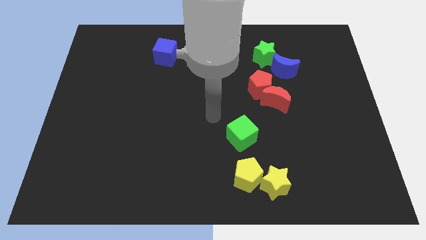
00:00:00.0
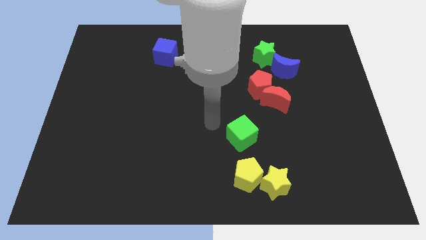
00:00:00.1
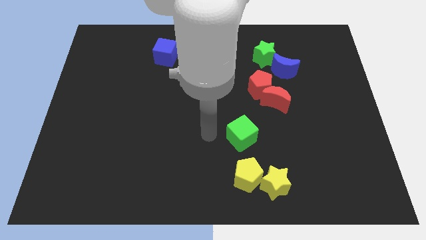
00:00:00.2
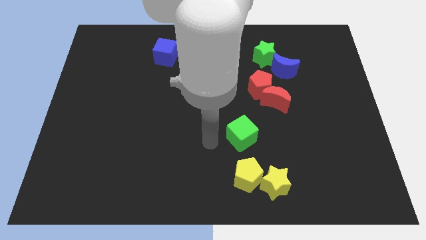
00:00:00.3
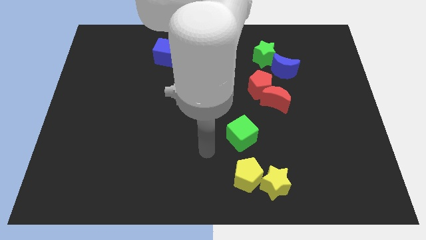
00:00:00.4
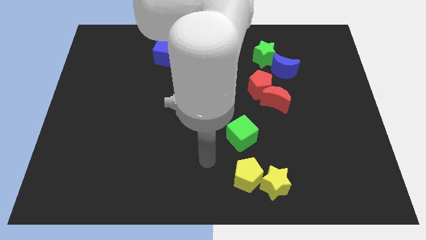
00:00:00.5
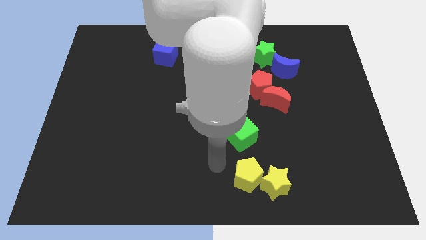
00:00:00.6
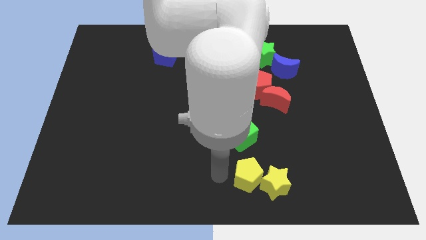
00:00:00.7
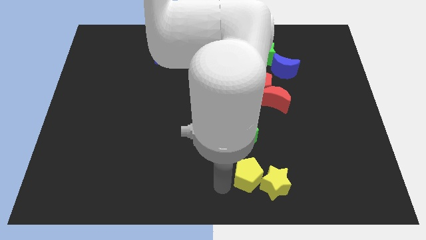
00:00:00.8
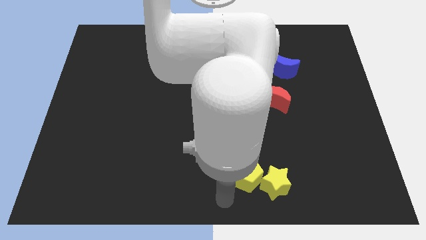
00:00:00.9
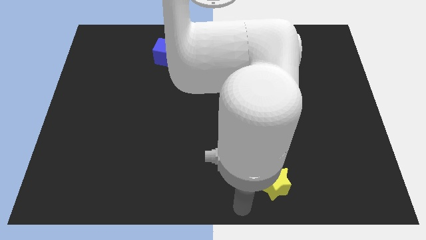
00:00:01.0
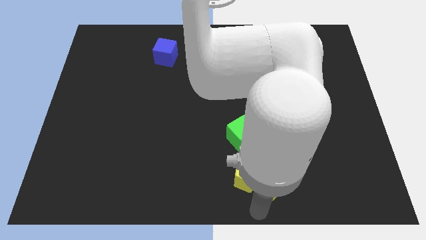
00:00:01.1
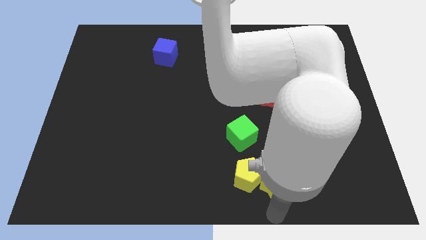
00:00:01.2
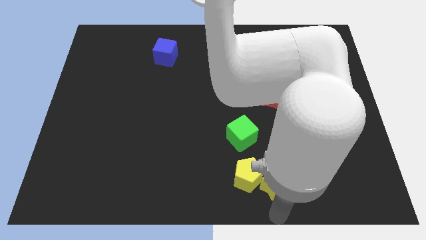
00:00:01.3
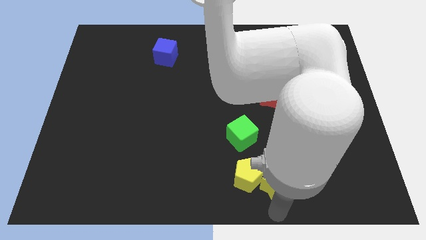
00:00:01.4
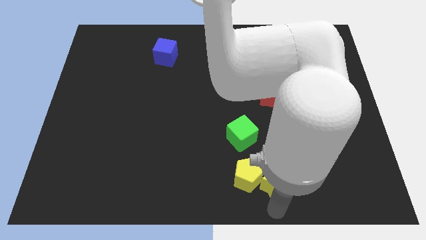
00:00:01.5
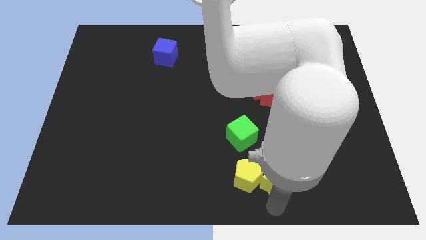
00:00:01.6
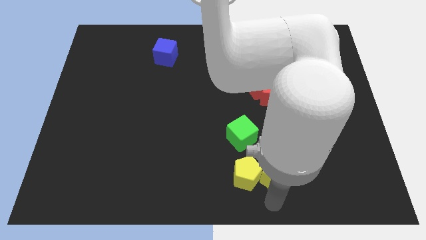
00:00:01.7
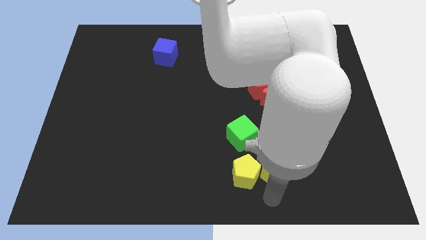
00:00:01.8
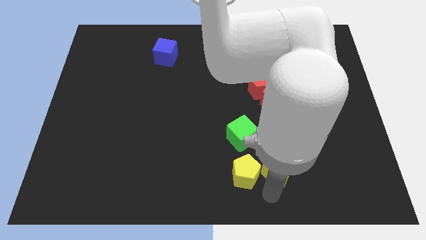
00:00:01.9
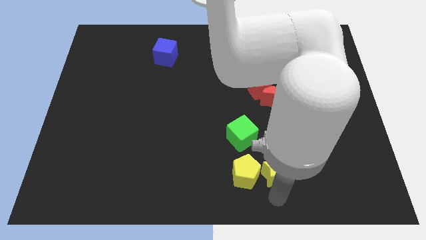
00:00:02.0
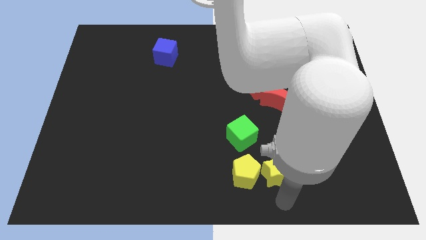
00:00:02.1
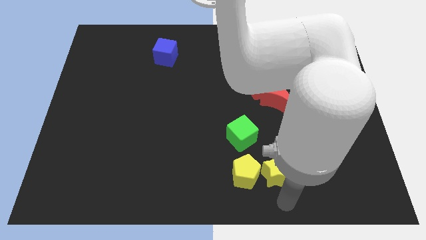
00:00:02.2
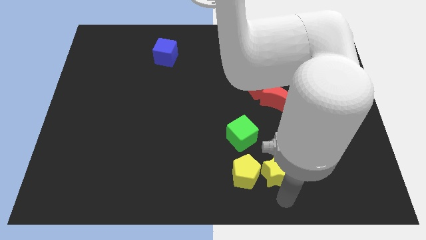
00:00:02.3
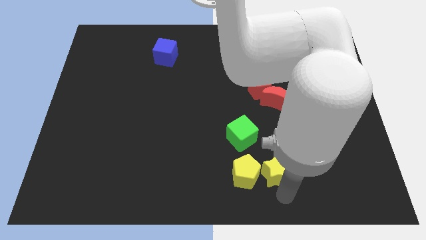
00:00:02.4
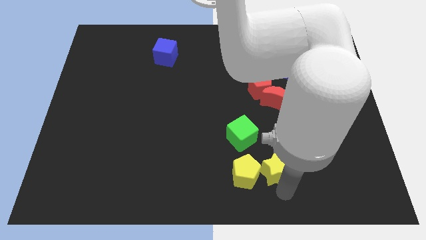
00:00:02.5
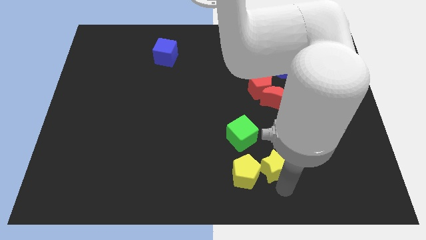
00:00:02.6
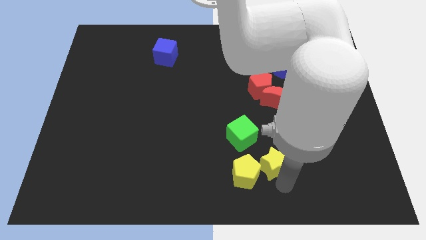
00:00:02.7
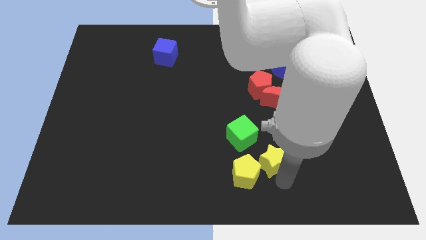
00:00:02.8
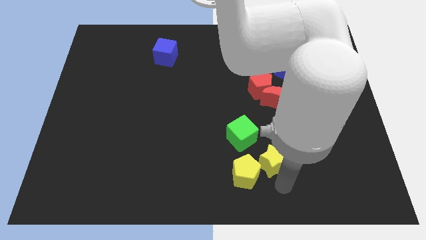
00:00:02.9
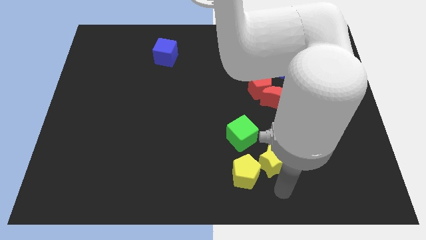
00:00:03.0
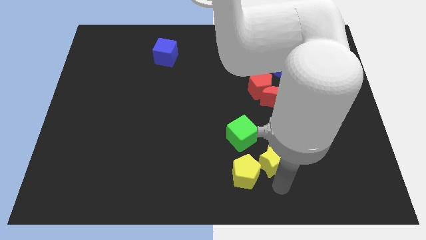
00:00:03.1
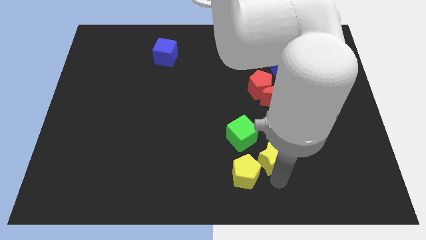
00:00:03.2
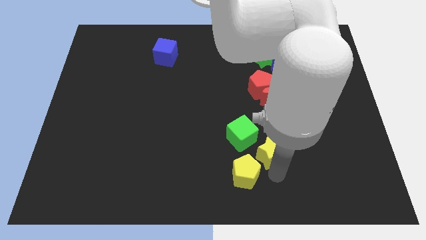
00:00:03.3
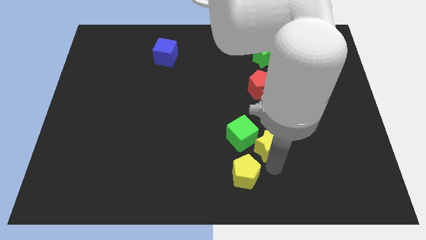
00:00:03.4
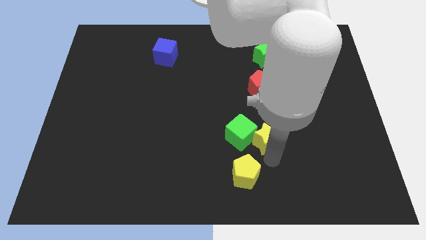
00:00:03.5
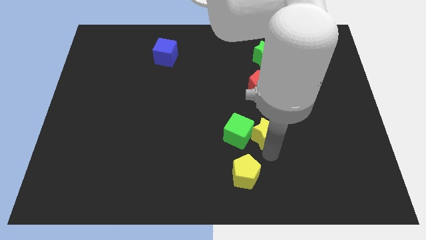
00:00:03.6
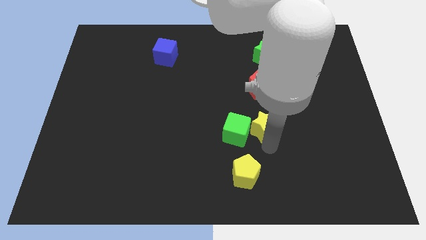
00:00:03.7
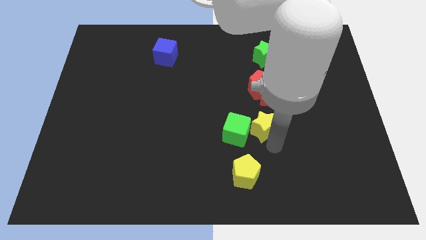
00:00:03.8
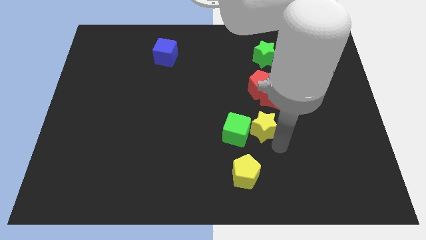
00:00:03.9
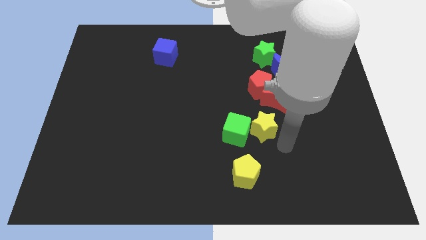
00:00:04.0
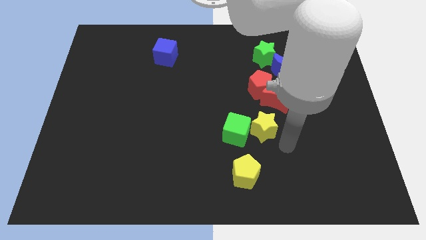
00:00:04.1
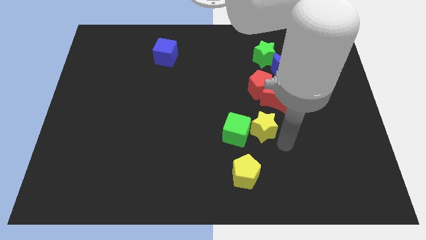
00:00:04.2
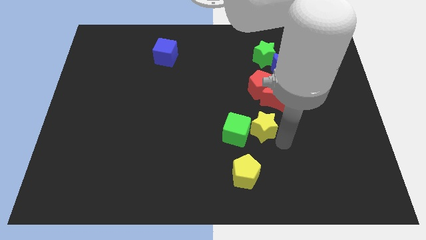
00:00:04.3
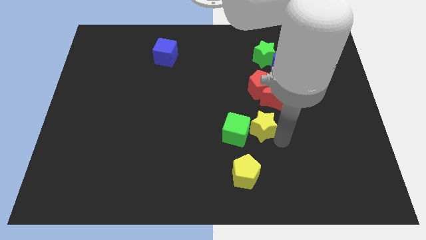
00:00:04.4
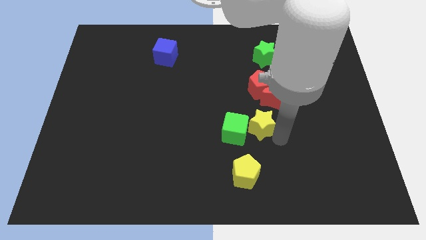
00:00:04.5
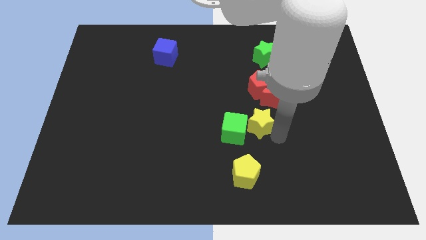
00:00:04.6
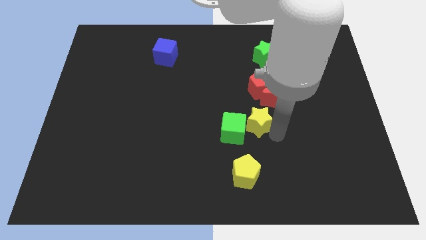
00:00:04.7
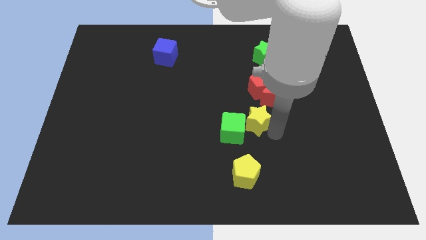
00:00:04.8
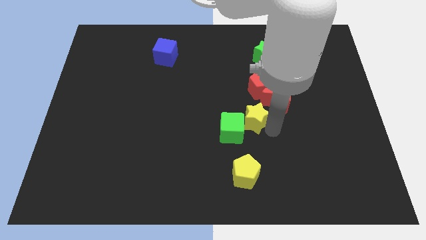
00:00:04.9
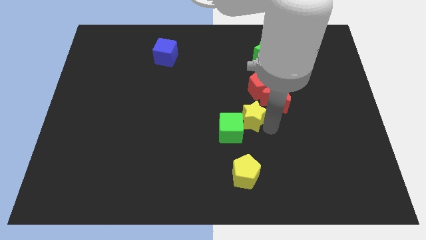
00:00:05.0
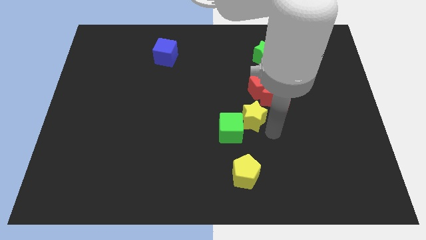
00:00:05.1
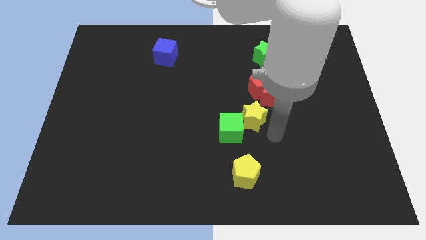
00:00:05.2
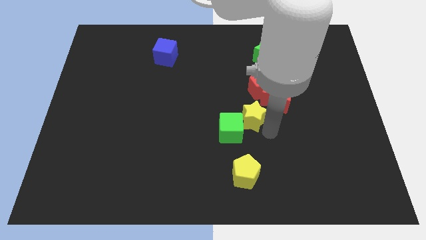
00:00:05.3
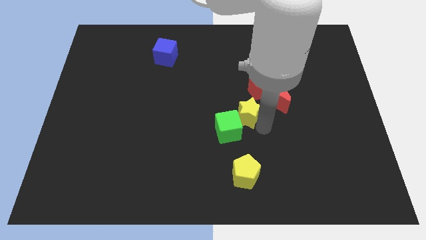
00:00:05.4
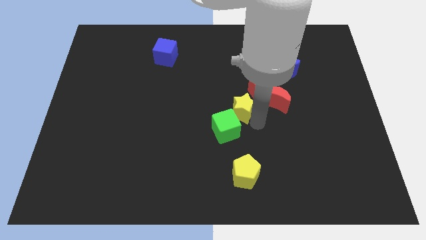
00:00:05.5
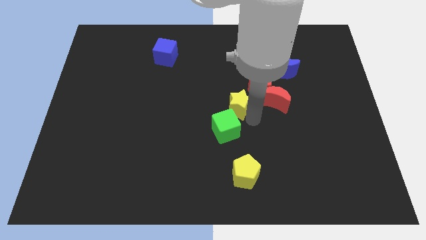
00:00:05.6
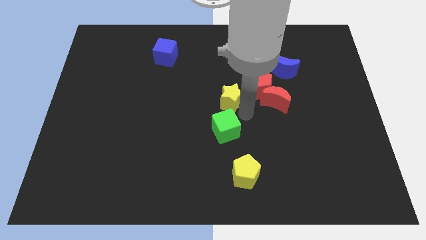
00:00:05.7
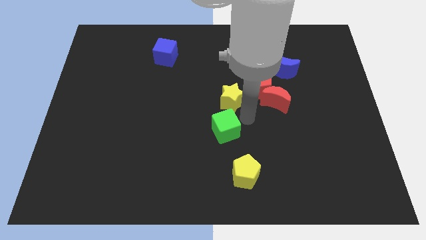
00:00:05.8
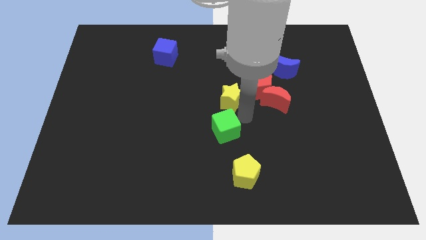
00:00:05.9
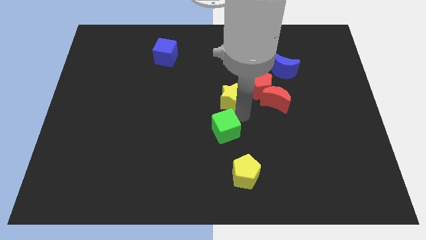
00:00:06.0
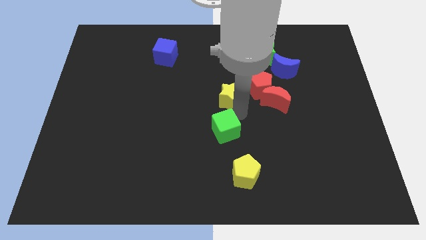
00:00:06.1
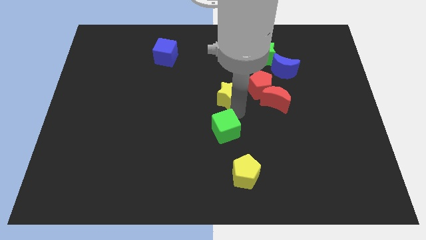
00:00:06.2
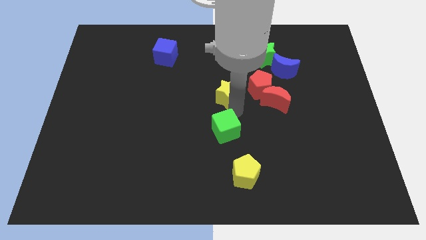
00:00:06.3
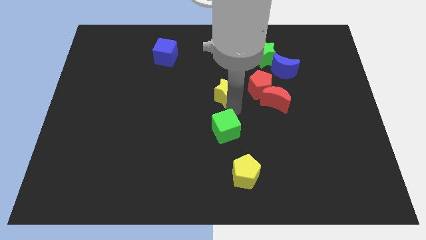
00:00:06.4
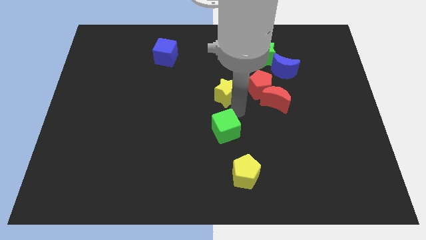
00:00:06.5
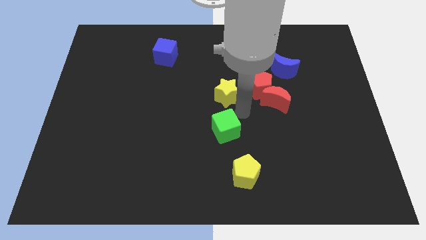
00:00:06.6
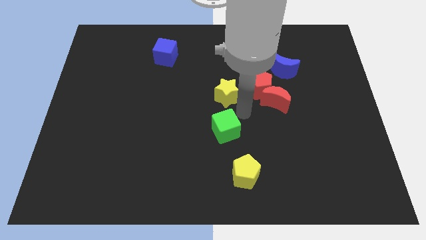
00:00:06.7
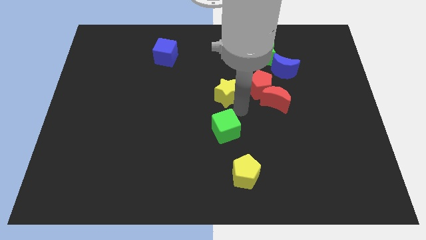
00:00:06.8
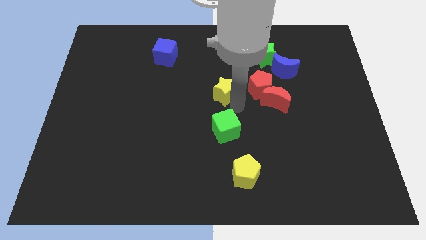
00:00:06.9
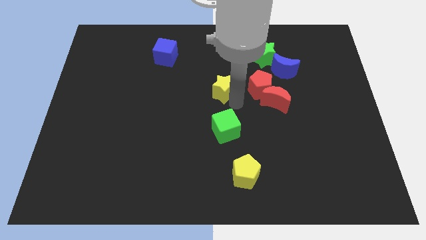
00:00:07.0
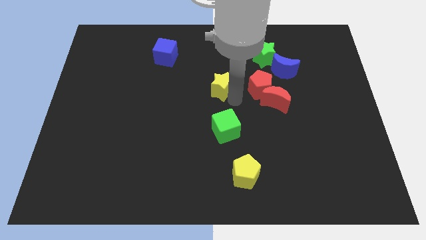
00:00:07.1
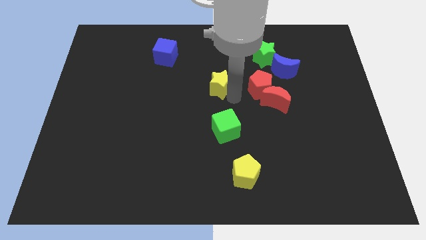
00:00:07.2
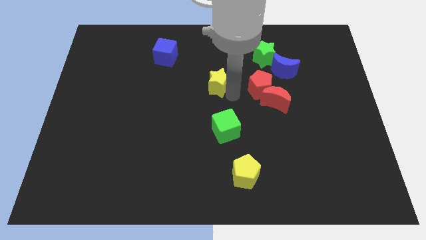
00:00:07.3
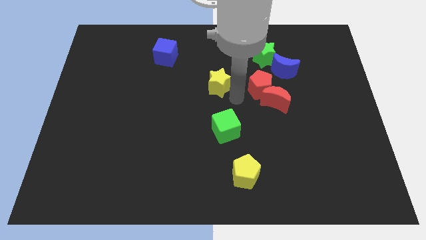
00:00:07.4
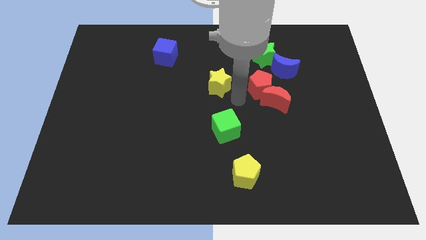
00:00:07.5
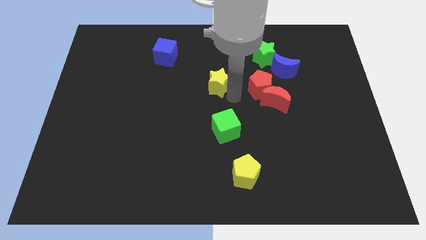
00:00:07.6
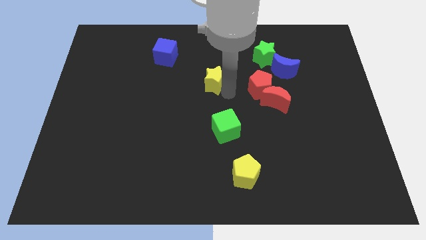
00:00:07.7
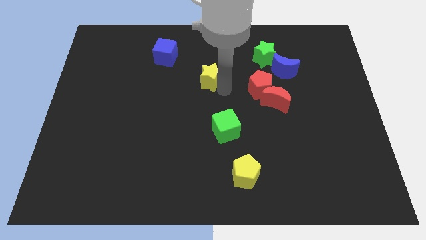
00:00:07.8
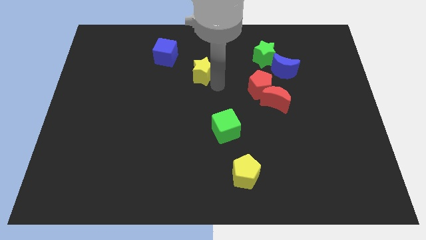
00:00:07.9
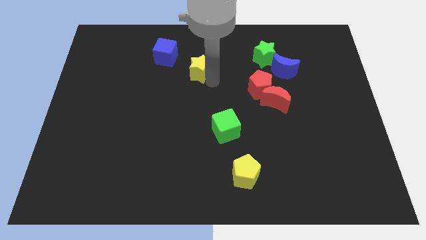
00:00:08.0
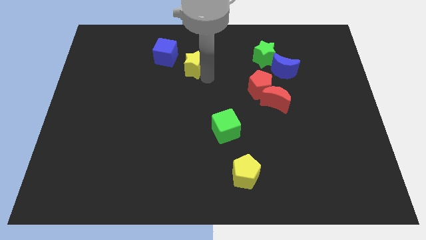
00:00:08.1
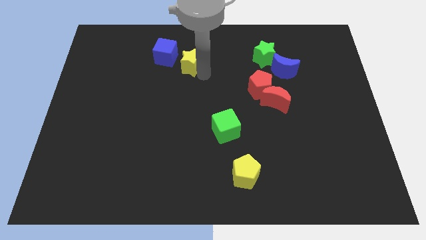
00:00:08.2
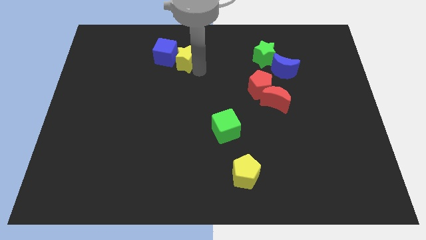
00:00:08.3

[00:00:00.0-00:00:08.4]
slide the yellow star close to the blue cube
